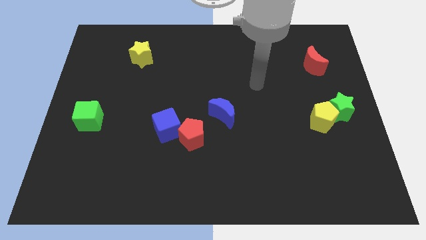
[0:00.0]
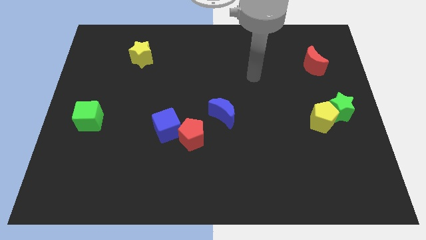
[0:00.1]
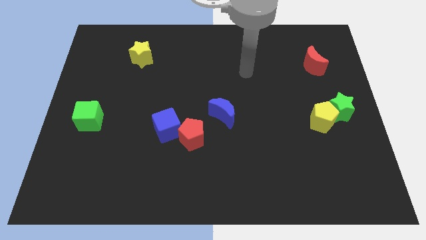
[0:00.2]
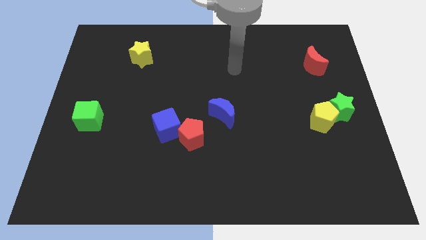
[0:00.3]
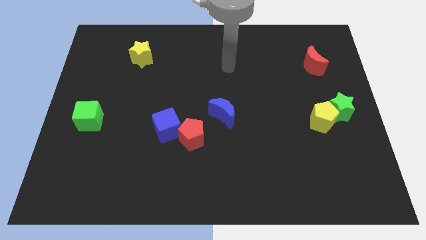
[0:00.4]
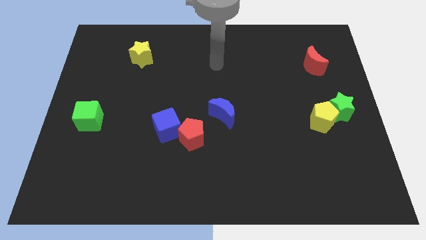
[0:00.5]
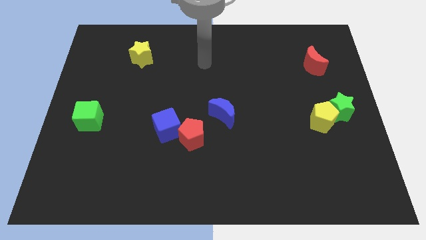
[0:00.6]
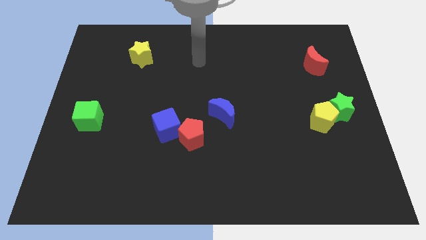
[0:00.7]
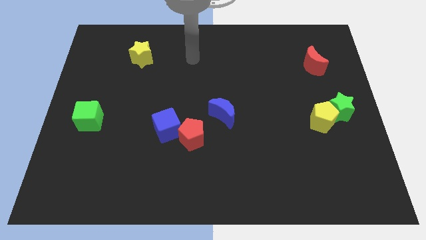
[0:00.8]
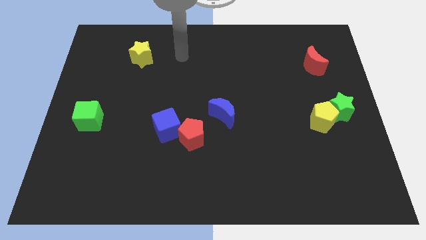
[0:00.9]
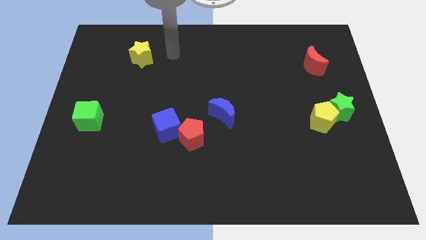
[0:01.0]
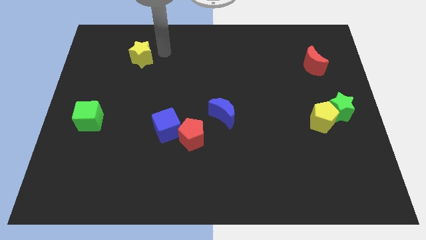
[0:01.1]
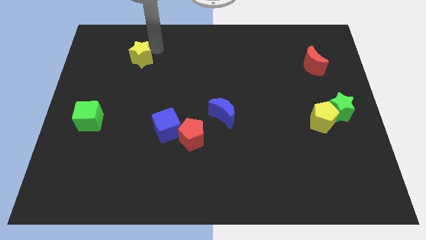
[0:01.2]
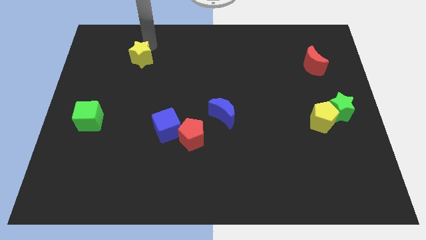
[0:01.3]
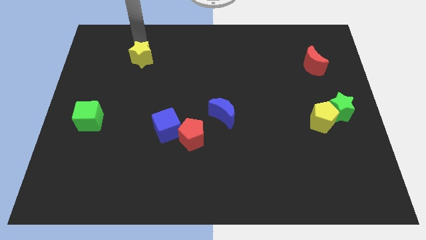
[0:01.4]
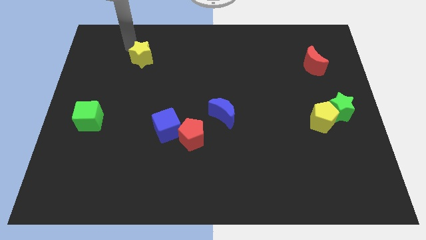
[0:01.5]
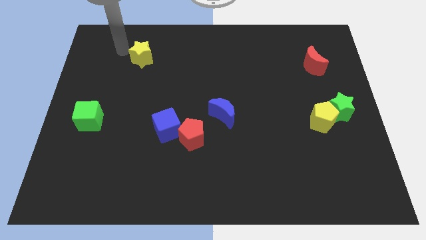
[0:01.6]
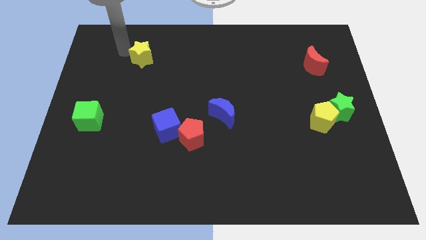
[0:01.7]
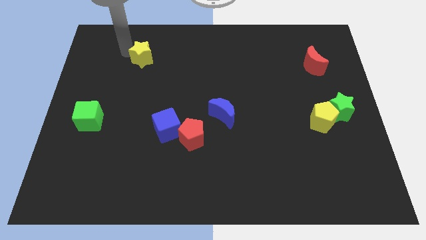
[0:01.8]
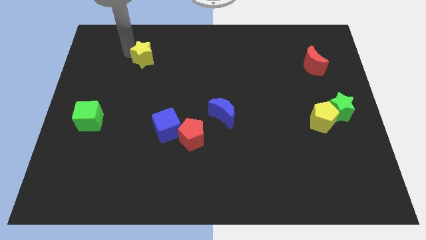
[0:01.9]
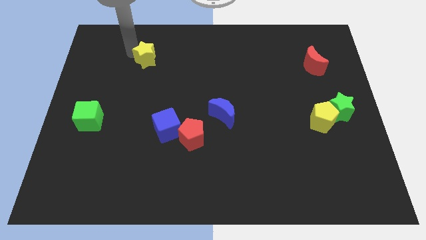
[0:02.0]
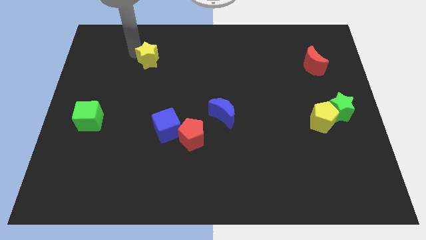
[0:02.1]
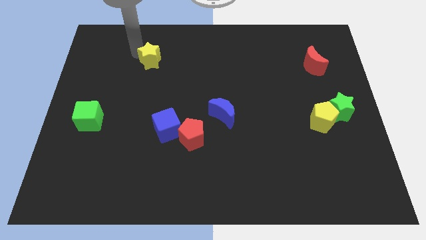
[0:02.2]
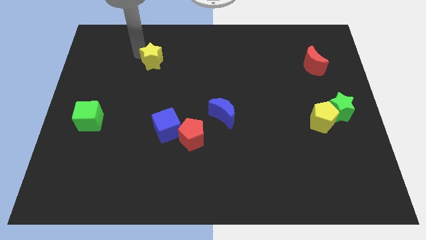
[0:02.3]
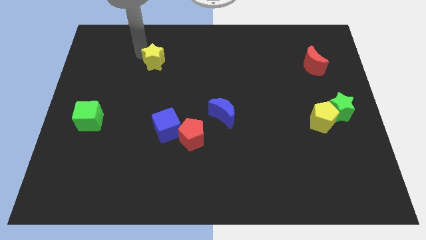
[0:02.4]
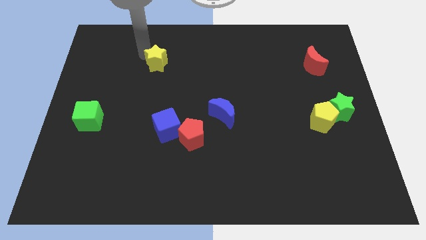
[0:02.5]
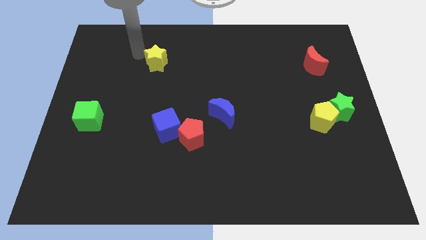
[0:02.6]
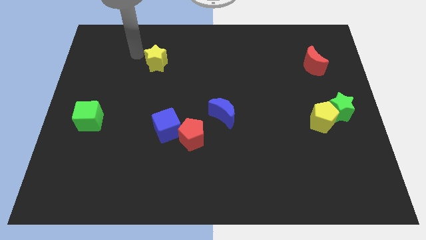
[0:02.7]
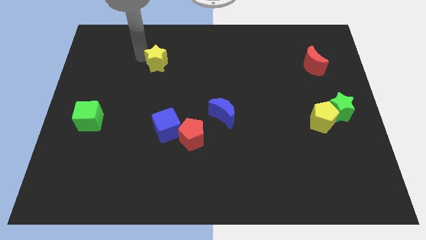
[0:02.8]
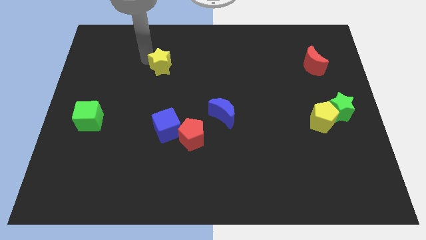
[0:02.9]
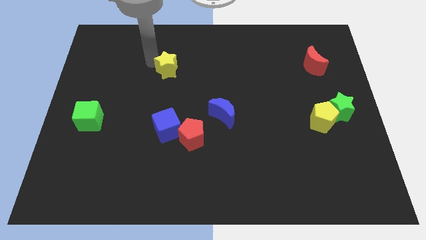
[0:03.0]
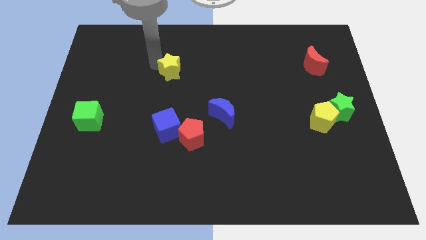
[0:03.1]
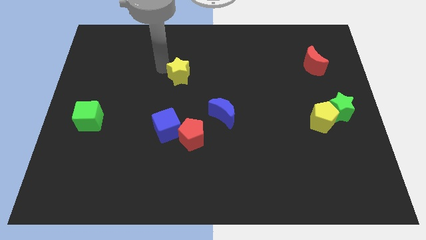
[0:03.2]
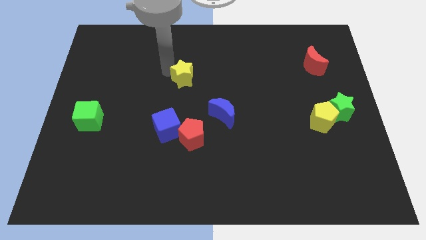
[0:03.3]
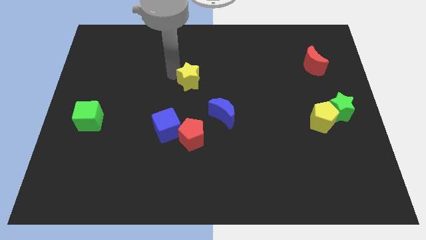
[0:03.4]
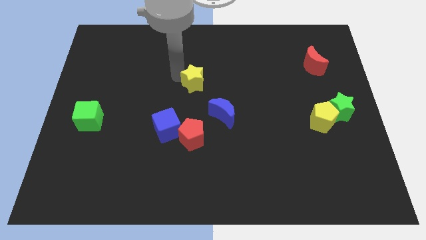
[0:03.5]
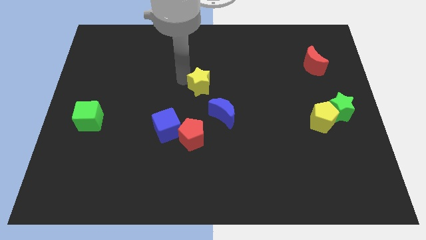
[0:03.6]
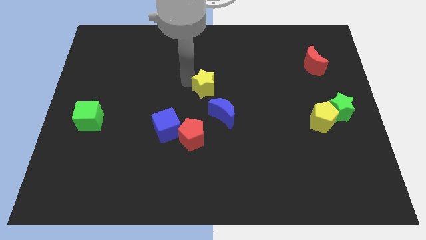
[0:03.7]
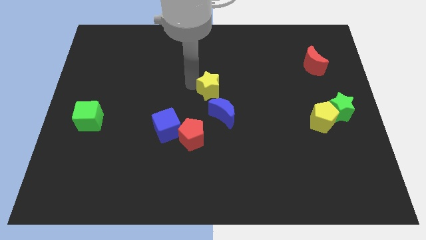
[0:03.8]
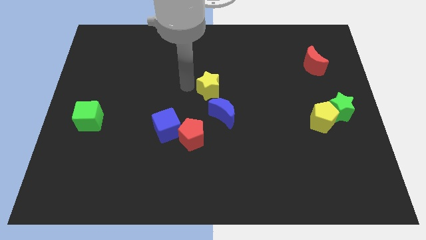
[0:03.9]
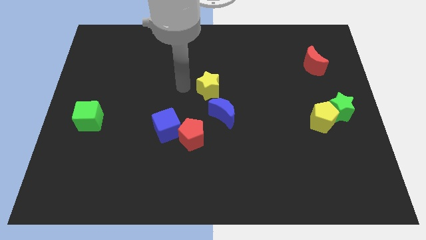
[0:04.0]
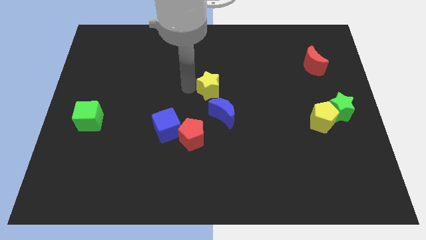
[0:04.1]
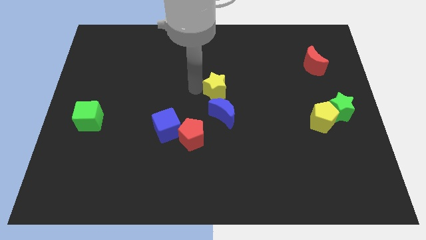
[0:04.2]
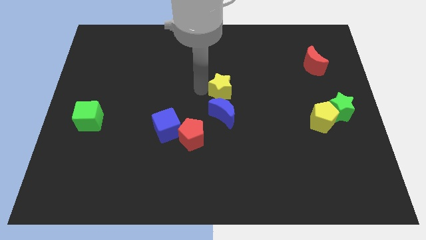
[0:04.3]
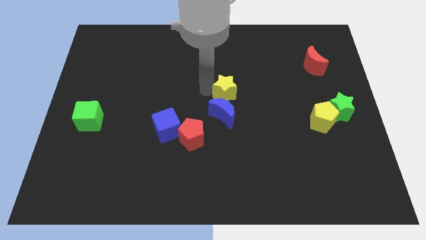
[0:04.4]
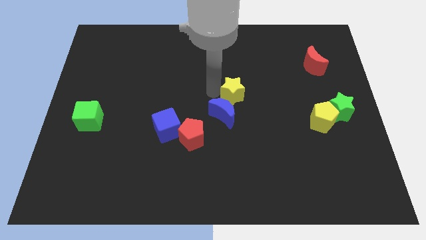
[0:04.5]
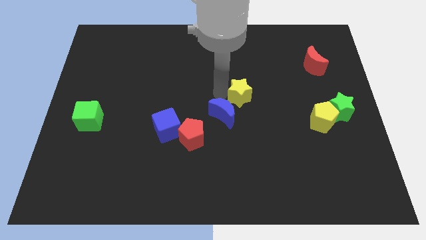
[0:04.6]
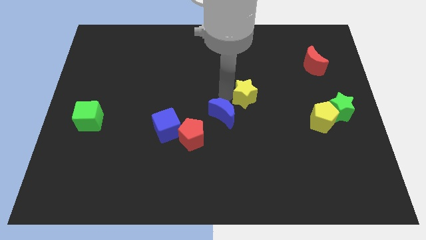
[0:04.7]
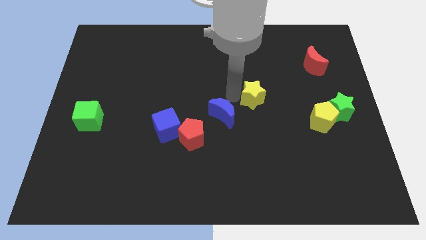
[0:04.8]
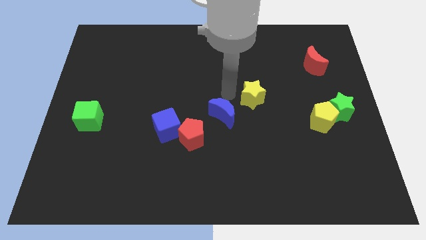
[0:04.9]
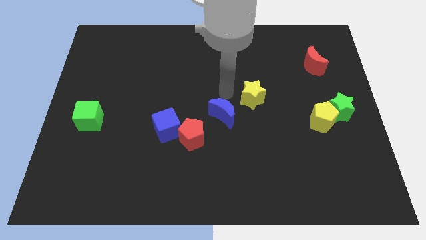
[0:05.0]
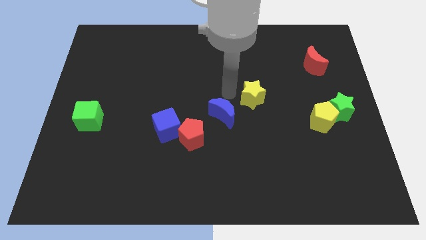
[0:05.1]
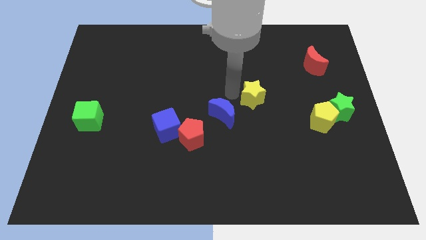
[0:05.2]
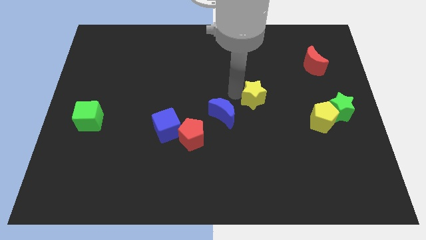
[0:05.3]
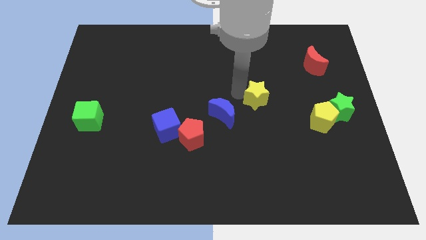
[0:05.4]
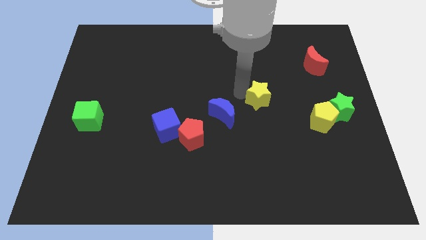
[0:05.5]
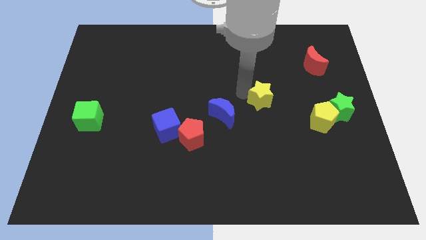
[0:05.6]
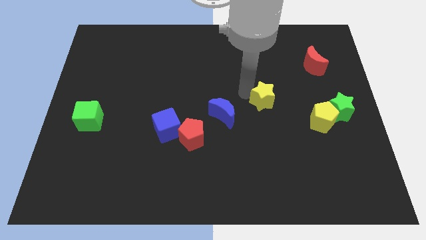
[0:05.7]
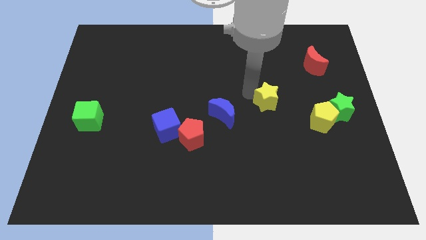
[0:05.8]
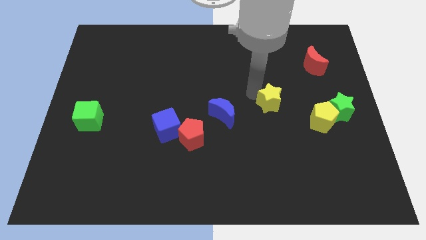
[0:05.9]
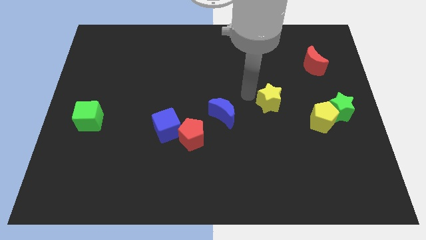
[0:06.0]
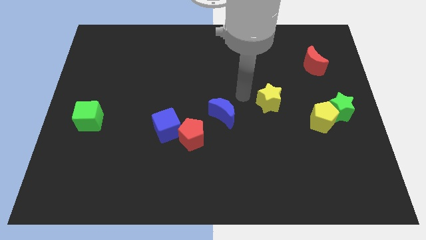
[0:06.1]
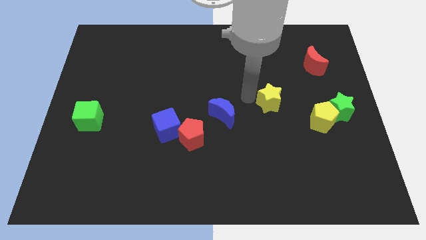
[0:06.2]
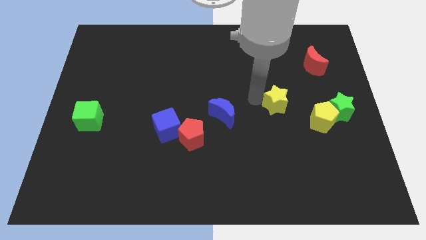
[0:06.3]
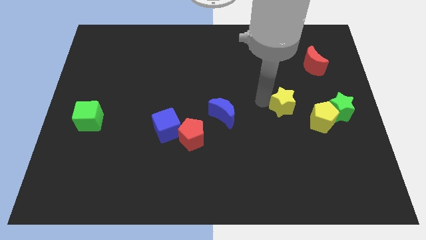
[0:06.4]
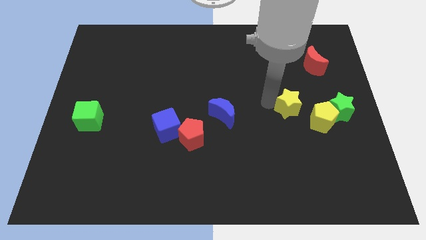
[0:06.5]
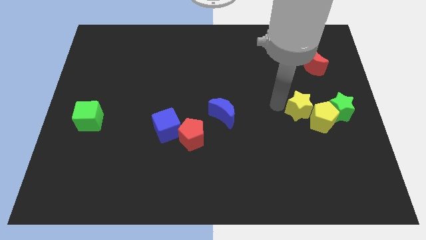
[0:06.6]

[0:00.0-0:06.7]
slide the yellow star to the yellow pentagon

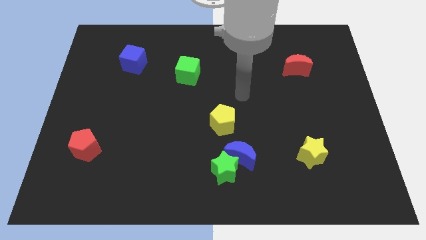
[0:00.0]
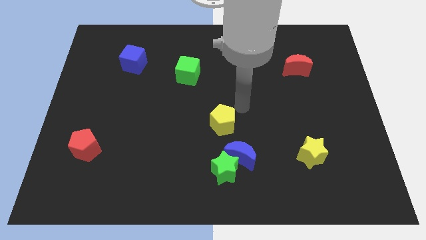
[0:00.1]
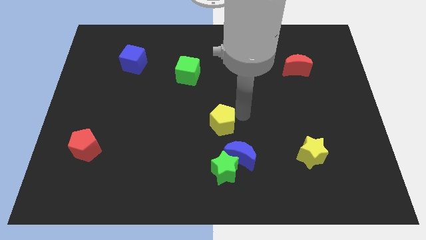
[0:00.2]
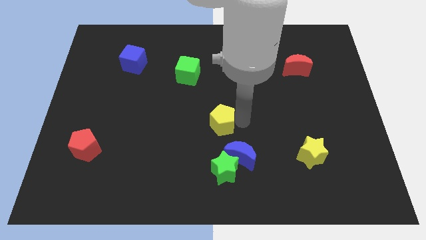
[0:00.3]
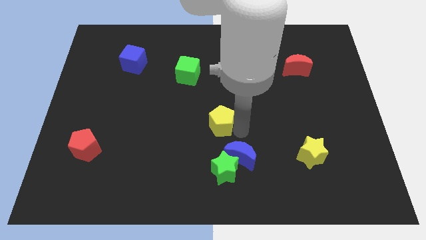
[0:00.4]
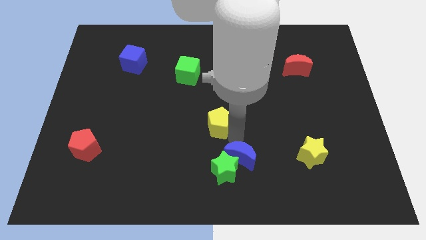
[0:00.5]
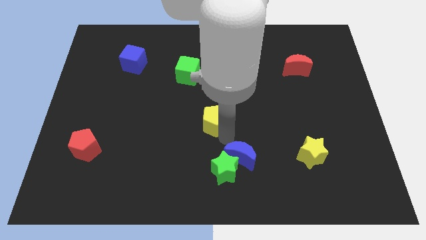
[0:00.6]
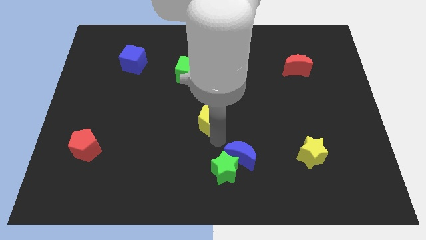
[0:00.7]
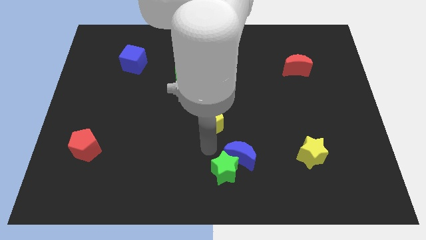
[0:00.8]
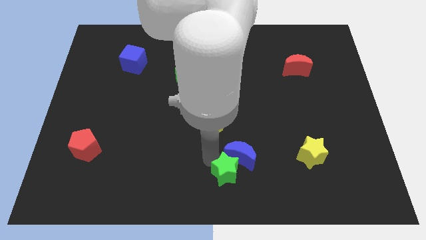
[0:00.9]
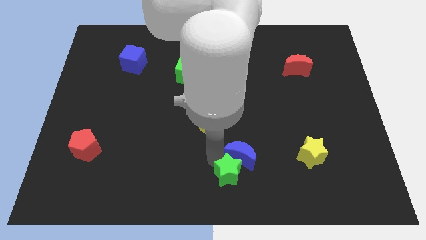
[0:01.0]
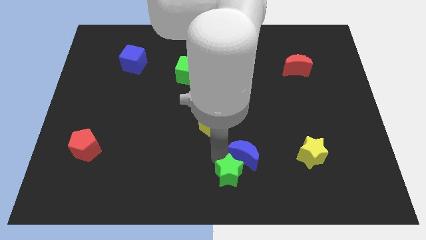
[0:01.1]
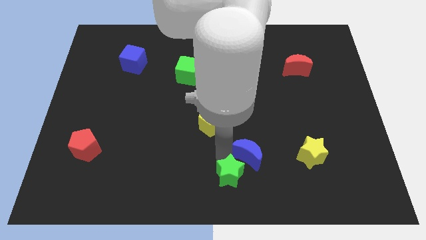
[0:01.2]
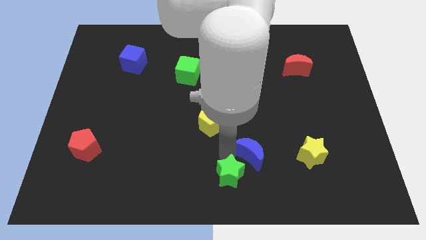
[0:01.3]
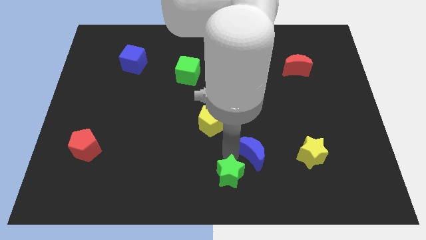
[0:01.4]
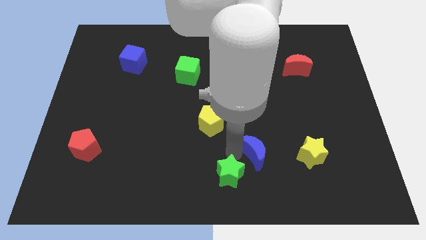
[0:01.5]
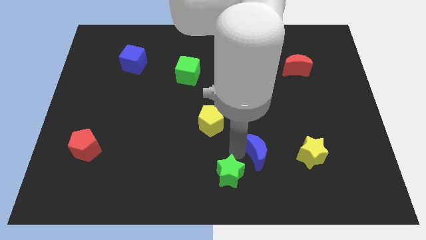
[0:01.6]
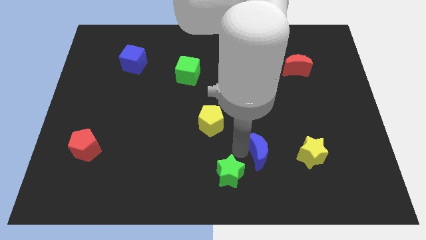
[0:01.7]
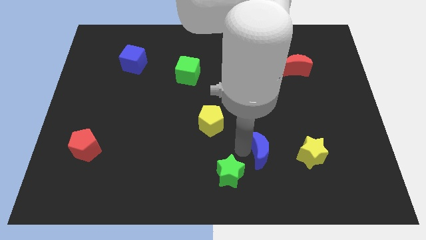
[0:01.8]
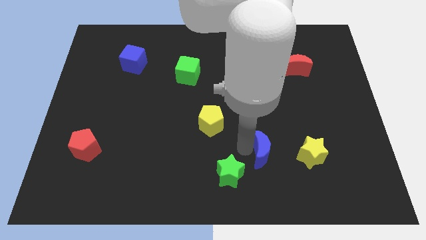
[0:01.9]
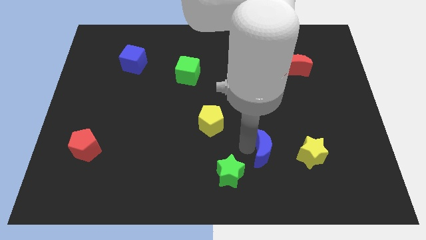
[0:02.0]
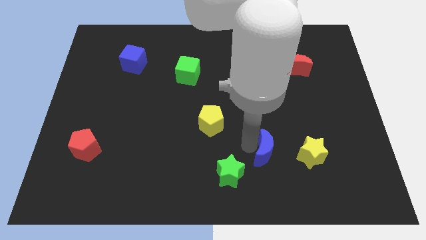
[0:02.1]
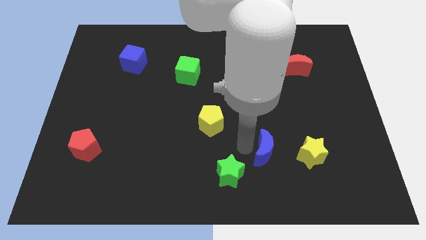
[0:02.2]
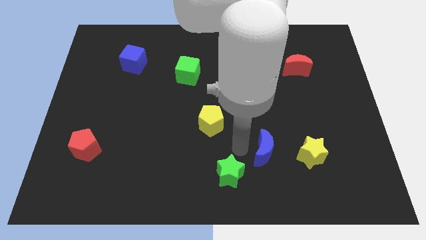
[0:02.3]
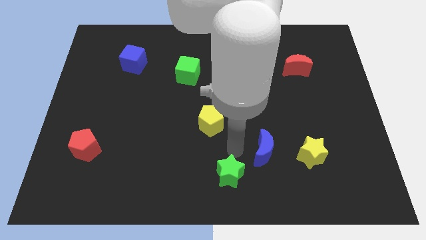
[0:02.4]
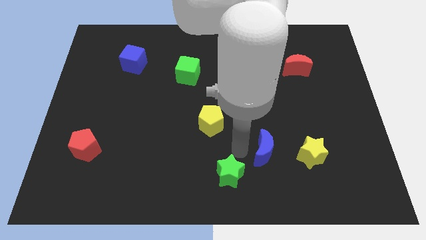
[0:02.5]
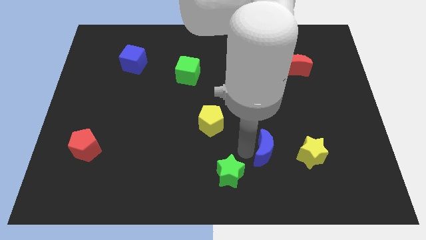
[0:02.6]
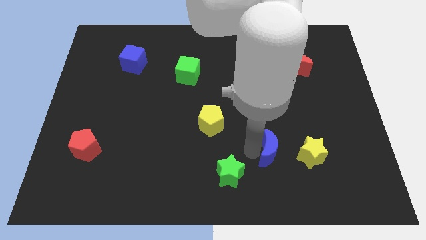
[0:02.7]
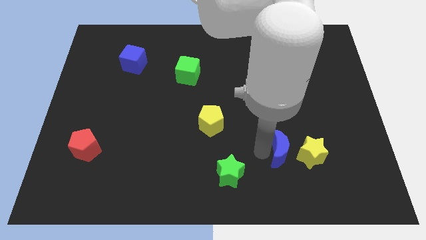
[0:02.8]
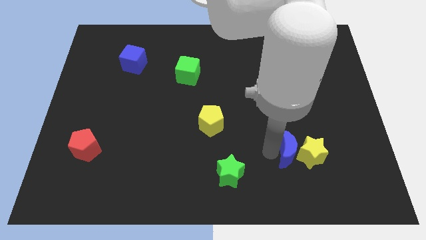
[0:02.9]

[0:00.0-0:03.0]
put the blue moon towards the yellow star
